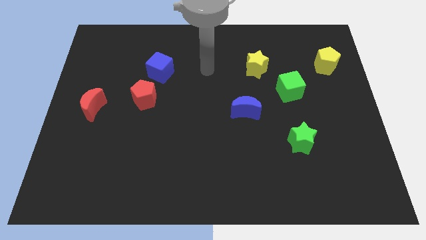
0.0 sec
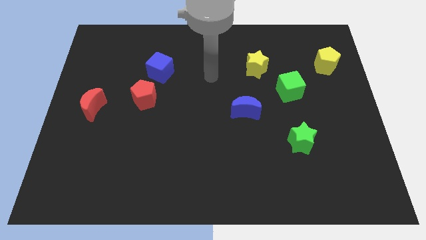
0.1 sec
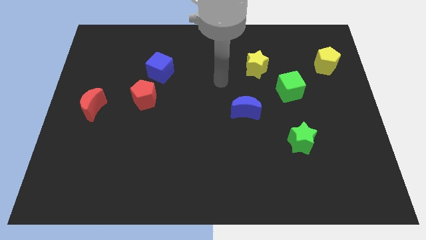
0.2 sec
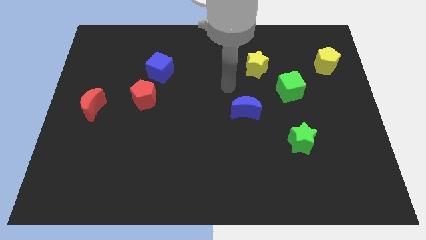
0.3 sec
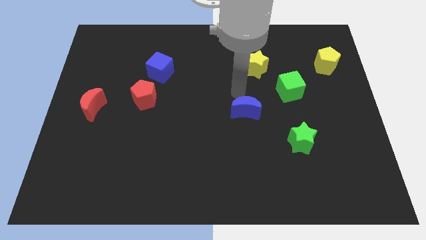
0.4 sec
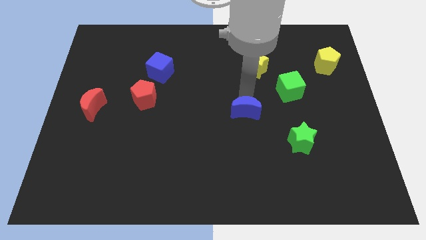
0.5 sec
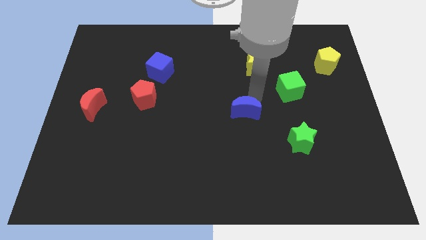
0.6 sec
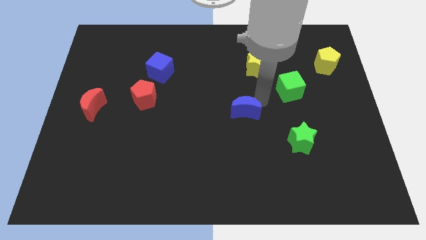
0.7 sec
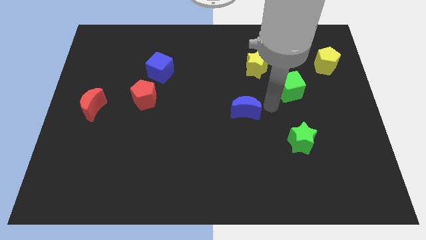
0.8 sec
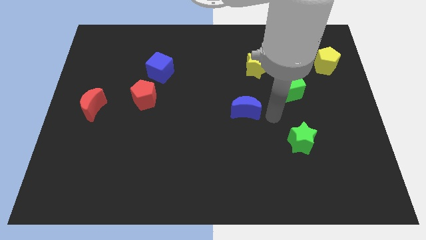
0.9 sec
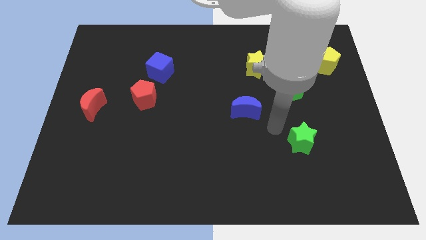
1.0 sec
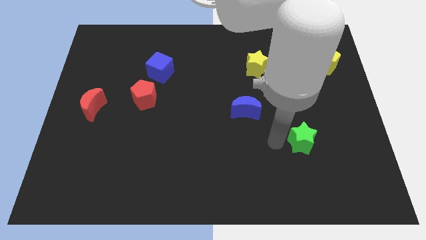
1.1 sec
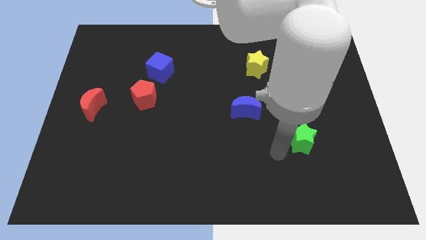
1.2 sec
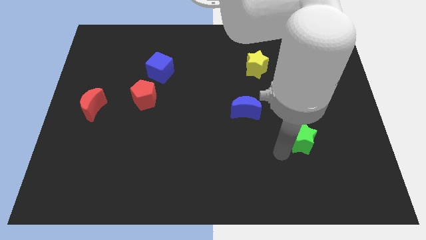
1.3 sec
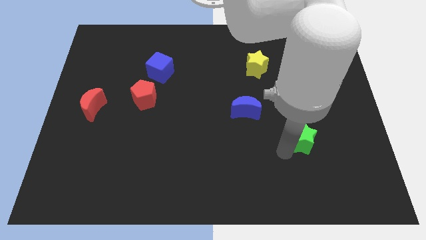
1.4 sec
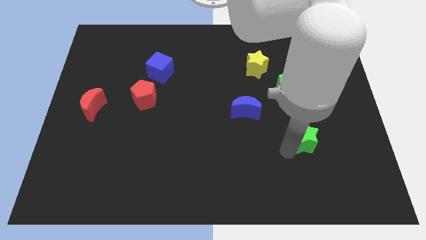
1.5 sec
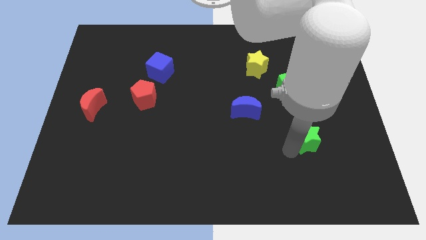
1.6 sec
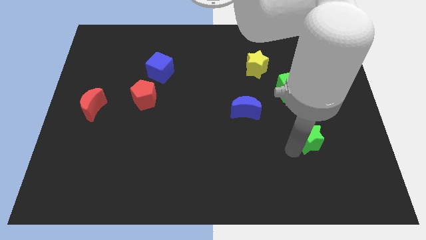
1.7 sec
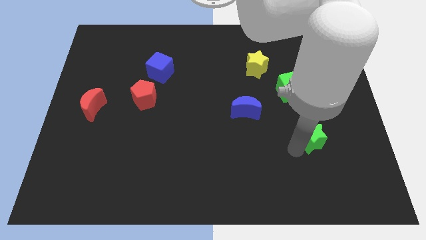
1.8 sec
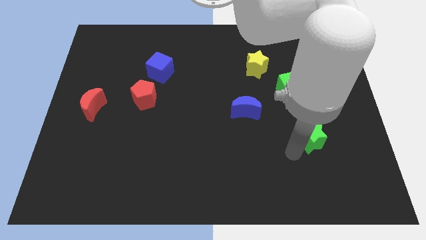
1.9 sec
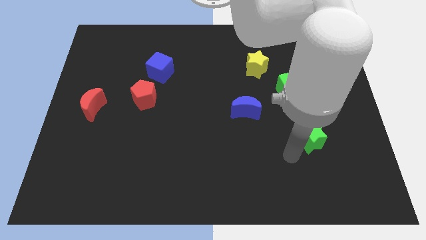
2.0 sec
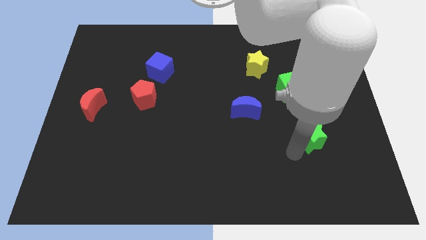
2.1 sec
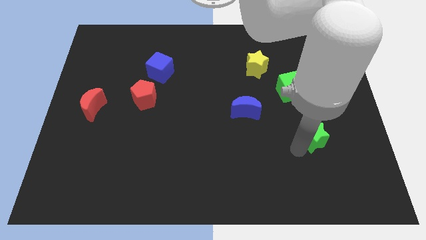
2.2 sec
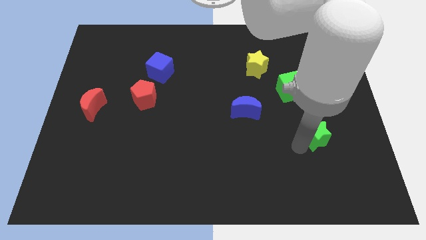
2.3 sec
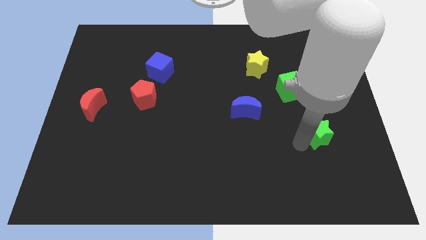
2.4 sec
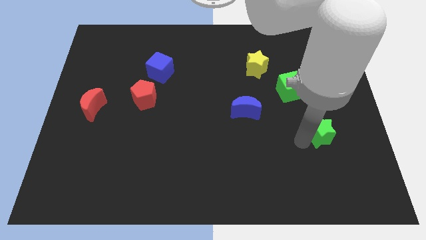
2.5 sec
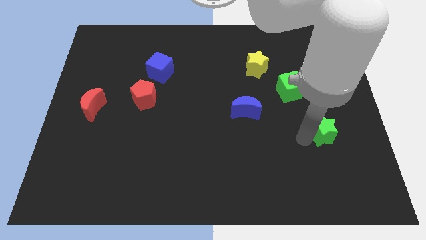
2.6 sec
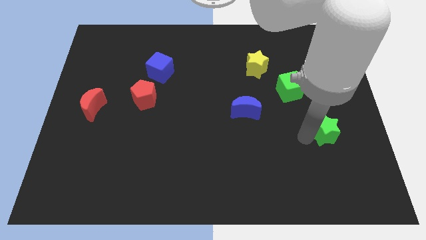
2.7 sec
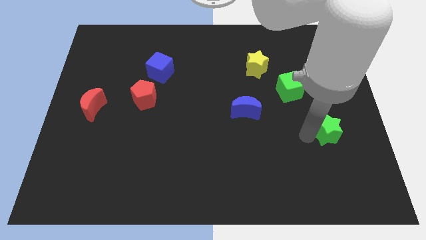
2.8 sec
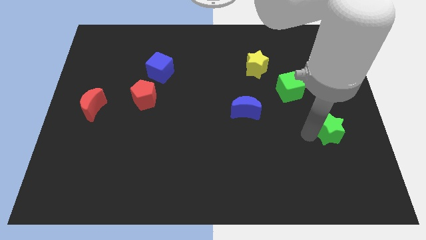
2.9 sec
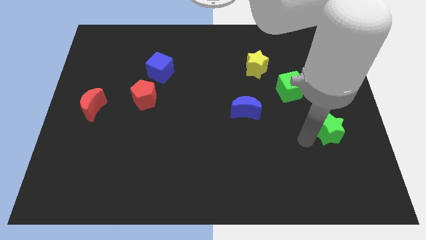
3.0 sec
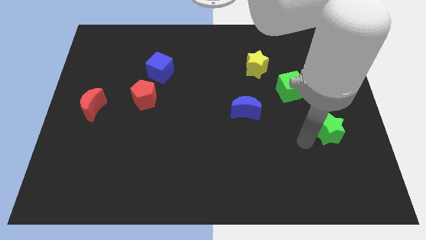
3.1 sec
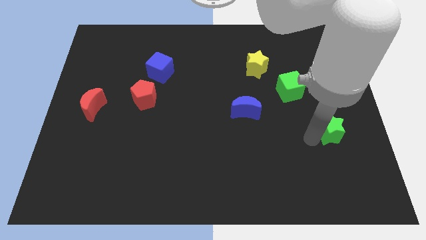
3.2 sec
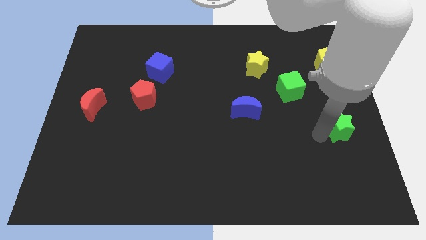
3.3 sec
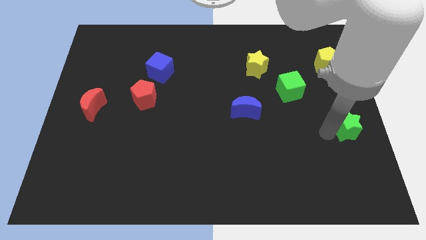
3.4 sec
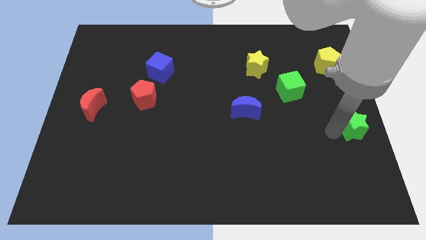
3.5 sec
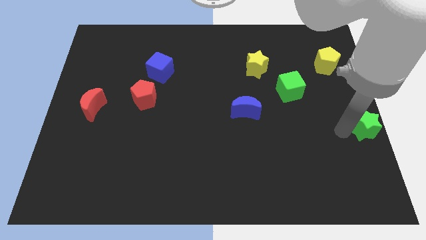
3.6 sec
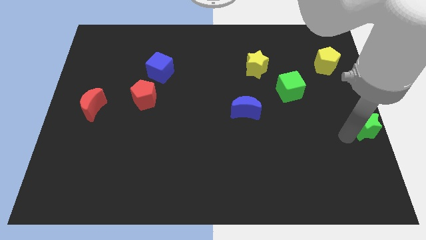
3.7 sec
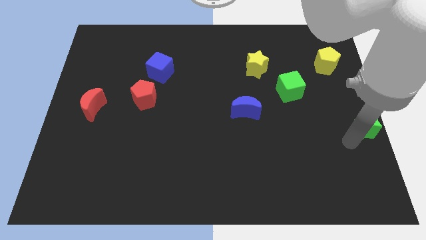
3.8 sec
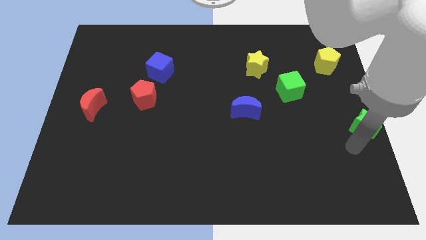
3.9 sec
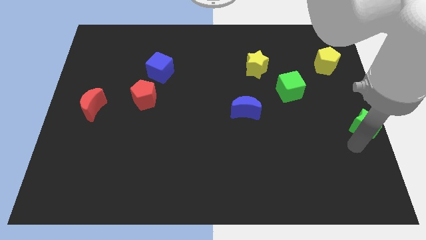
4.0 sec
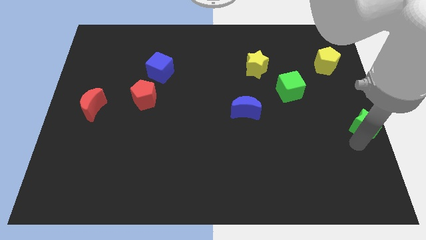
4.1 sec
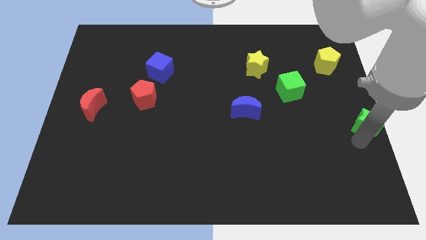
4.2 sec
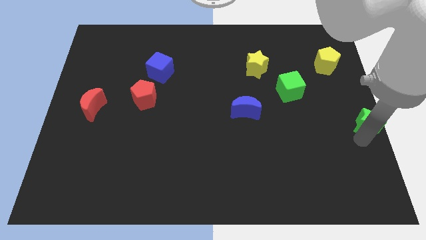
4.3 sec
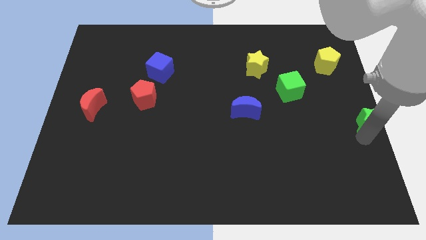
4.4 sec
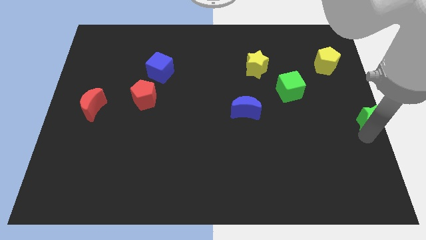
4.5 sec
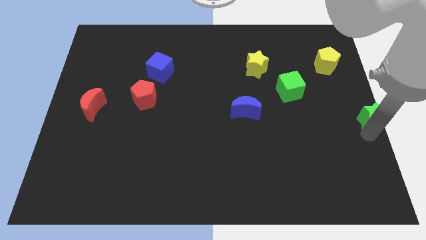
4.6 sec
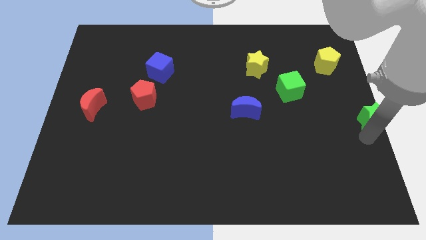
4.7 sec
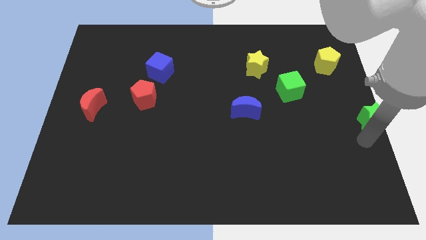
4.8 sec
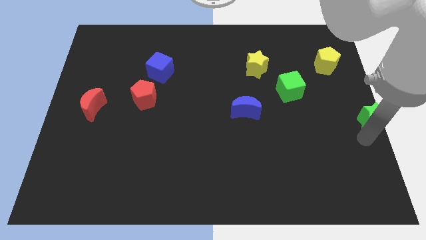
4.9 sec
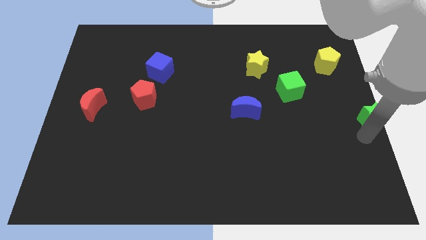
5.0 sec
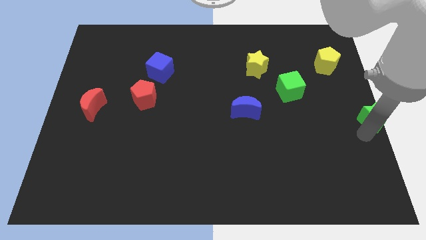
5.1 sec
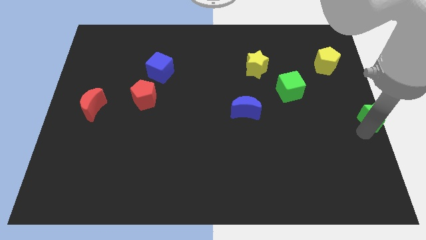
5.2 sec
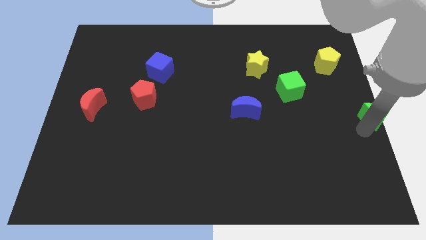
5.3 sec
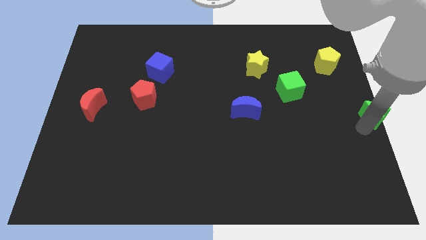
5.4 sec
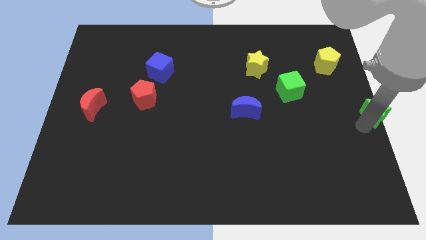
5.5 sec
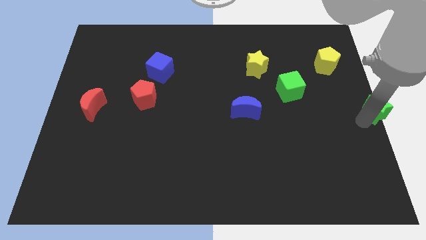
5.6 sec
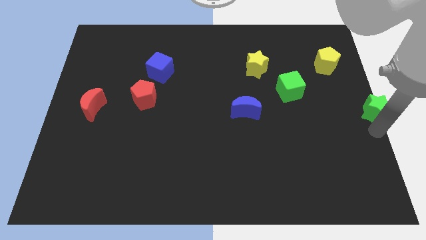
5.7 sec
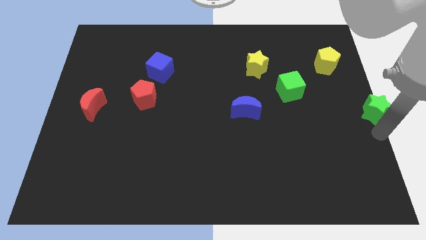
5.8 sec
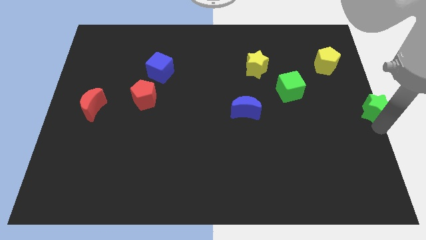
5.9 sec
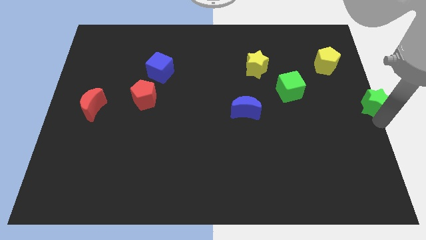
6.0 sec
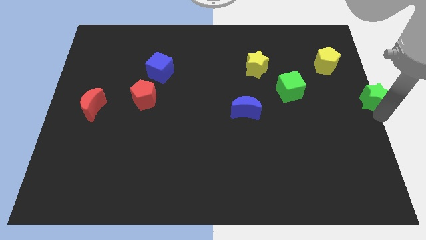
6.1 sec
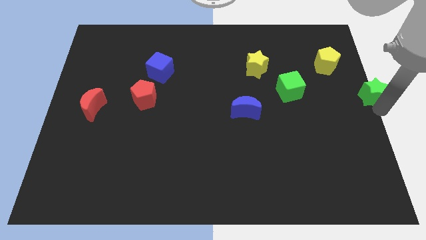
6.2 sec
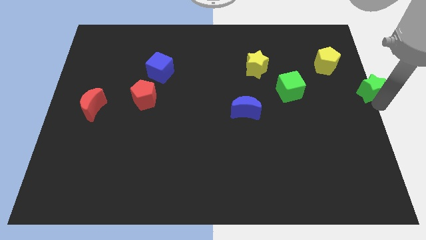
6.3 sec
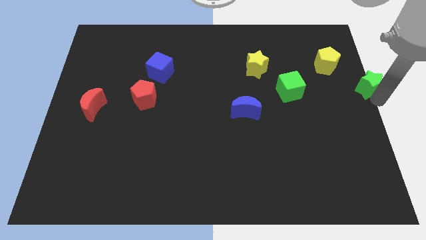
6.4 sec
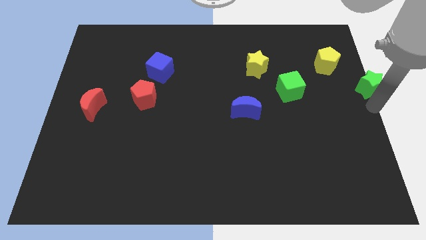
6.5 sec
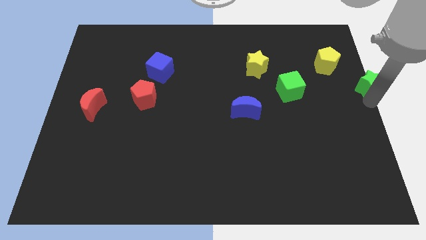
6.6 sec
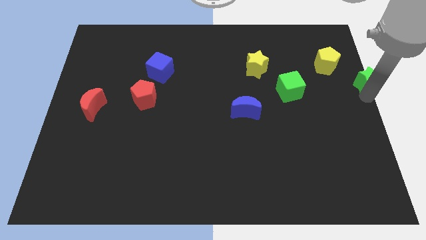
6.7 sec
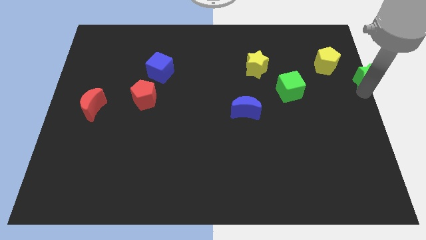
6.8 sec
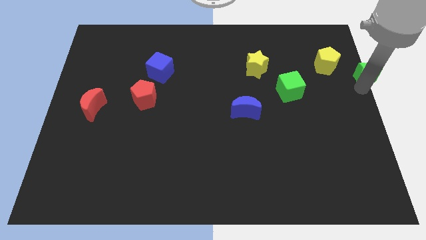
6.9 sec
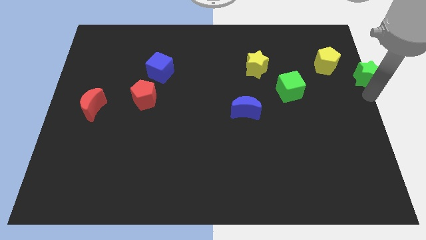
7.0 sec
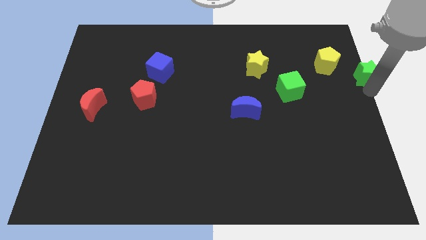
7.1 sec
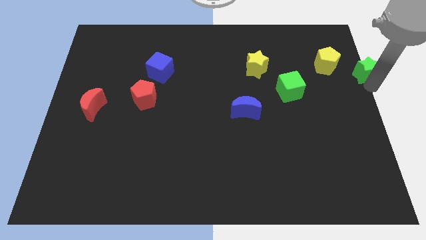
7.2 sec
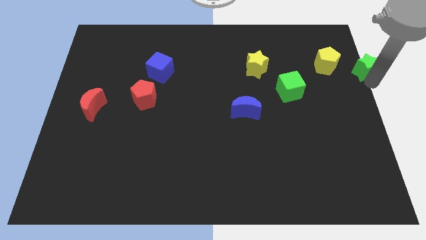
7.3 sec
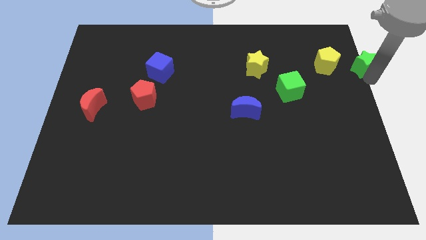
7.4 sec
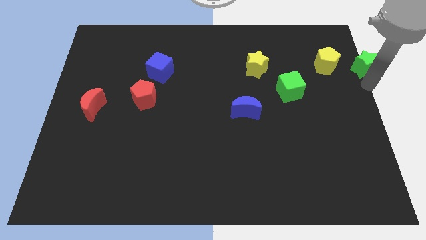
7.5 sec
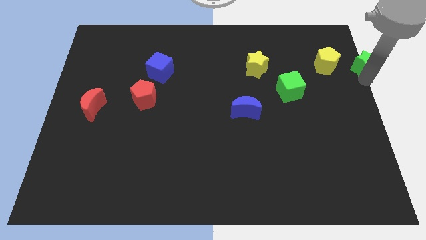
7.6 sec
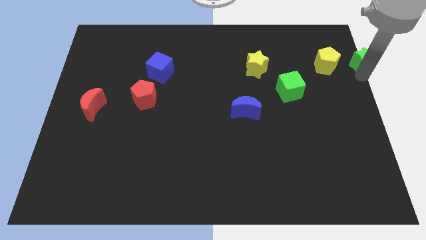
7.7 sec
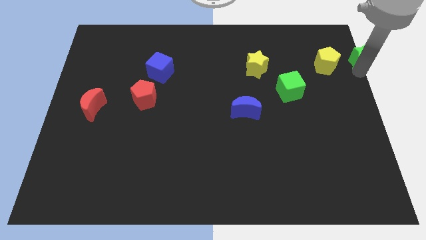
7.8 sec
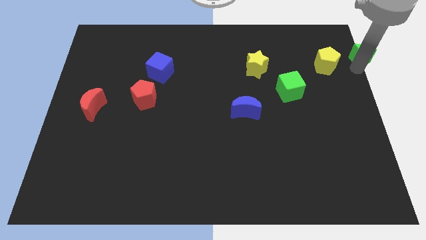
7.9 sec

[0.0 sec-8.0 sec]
push the green star to the top right
